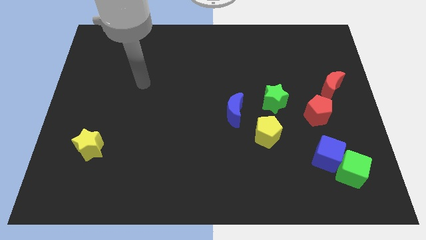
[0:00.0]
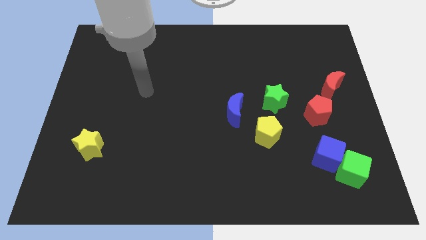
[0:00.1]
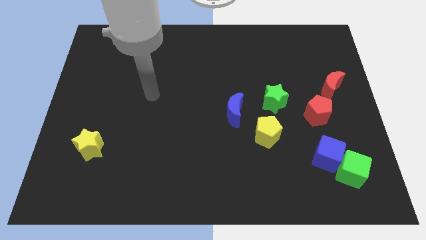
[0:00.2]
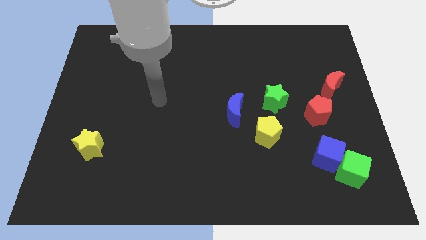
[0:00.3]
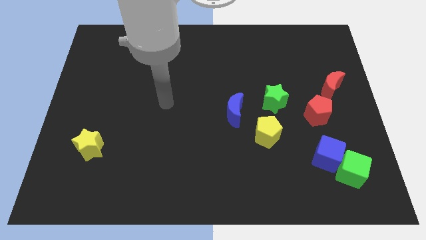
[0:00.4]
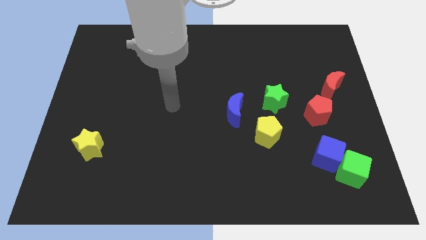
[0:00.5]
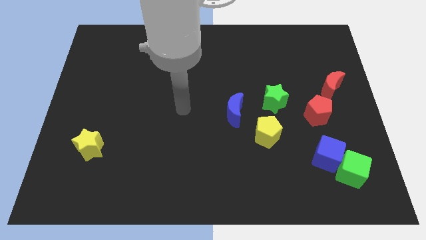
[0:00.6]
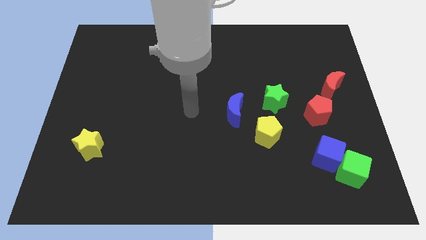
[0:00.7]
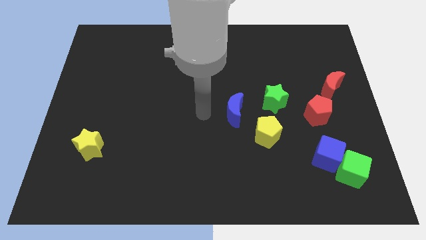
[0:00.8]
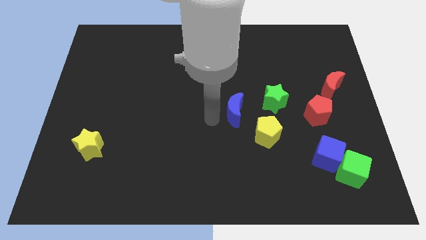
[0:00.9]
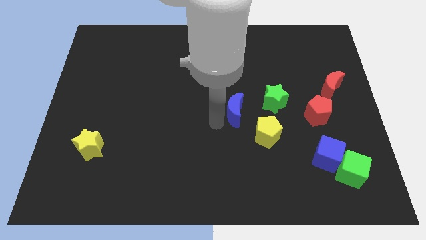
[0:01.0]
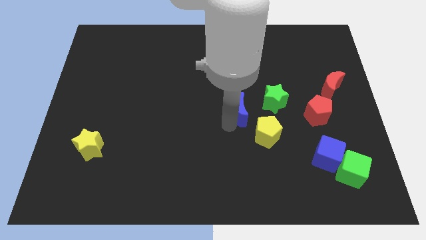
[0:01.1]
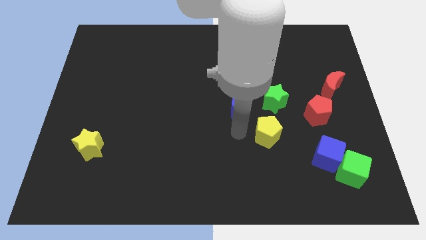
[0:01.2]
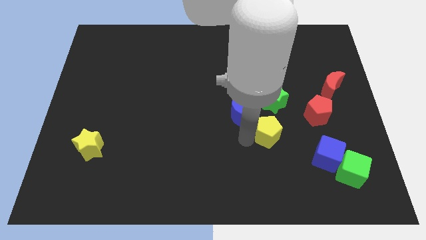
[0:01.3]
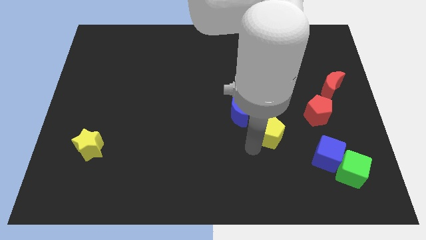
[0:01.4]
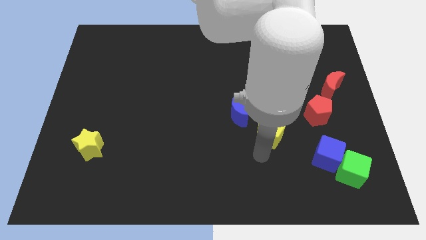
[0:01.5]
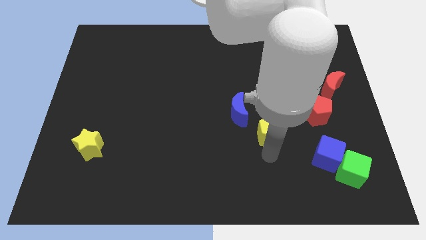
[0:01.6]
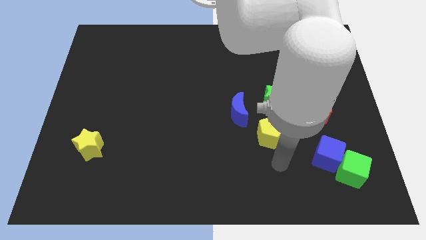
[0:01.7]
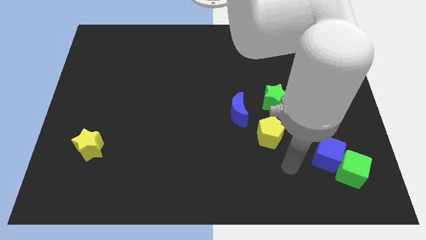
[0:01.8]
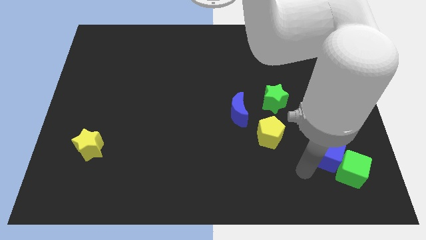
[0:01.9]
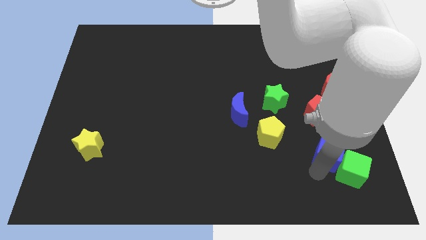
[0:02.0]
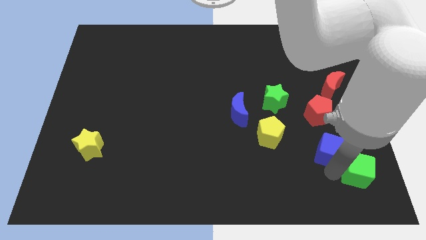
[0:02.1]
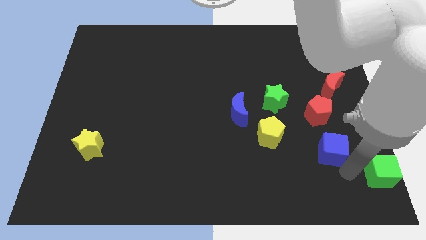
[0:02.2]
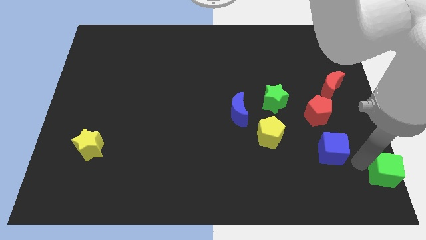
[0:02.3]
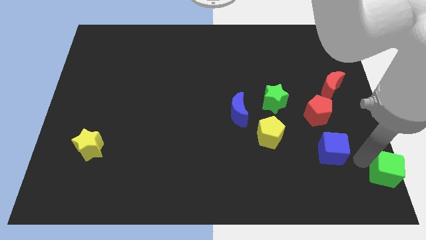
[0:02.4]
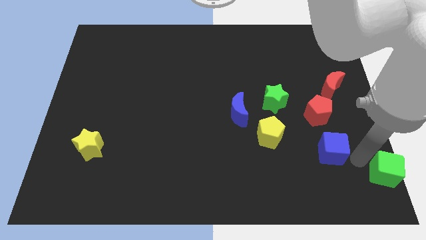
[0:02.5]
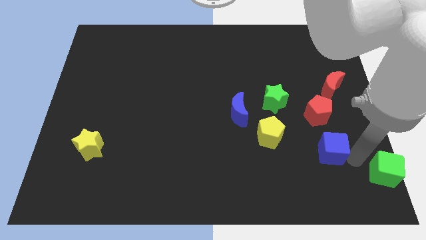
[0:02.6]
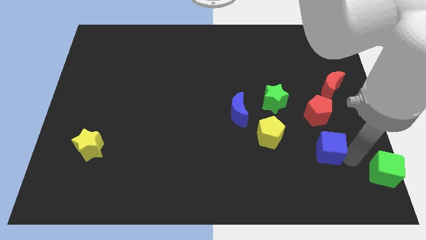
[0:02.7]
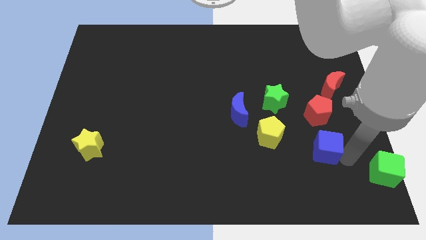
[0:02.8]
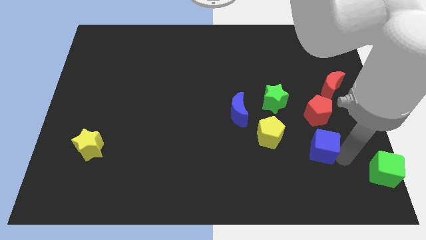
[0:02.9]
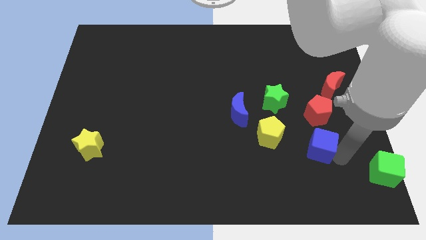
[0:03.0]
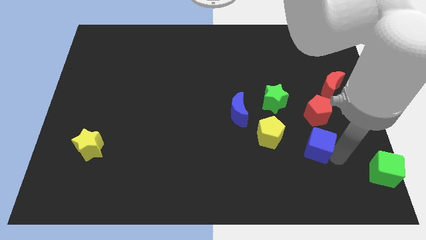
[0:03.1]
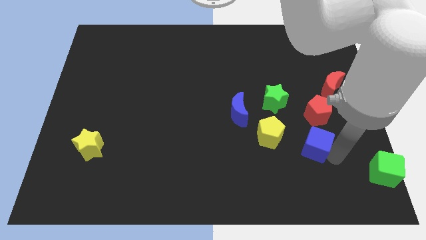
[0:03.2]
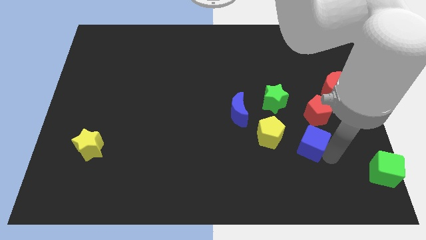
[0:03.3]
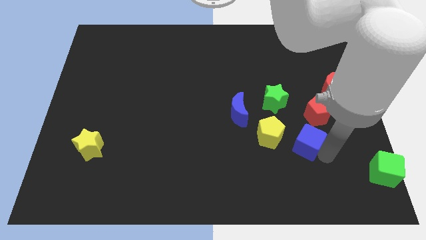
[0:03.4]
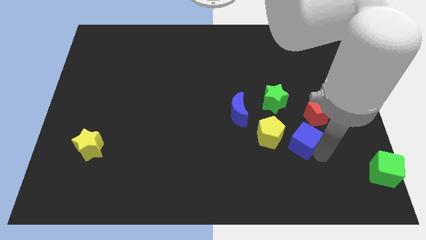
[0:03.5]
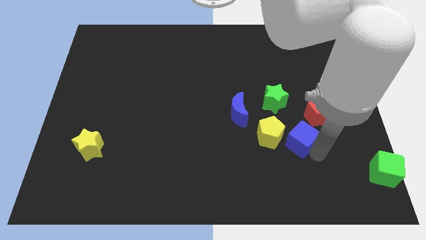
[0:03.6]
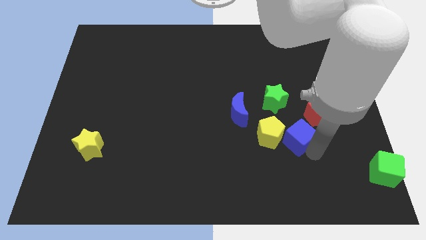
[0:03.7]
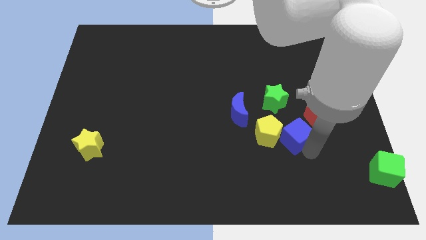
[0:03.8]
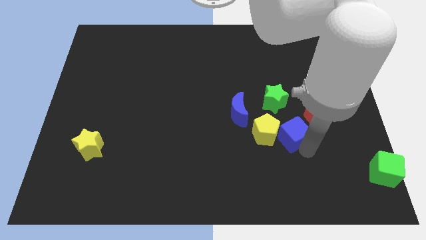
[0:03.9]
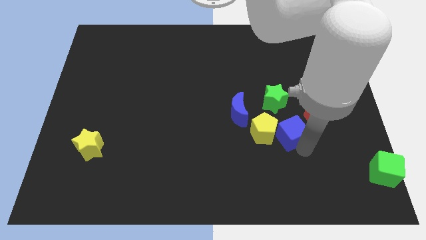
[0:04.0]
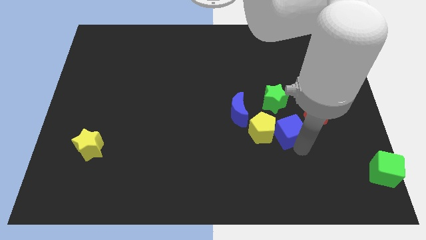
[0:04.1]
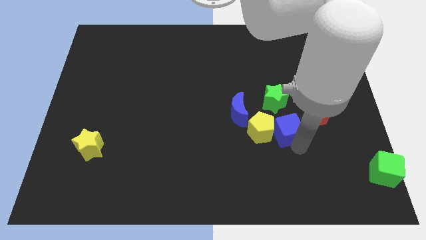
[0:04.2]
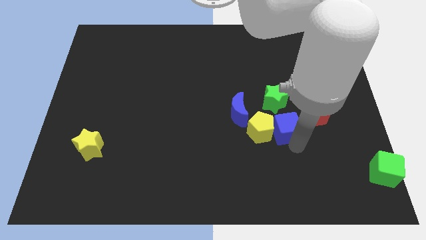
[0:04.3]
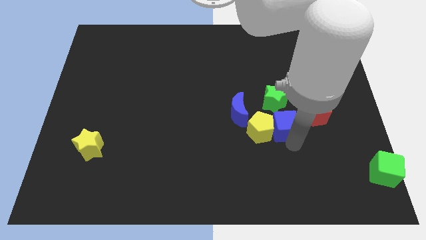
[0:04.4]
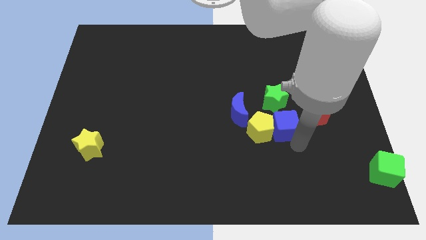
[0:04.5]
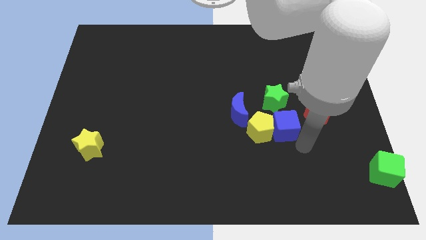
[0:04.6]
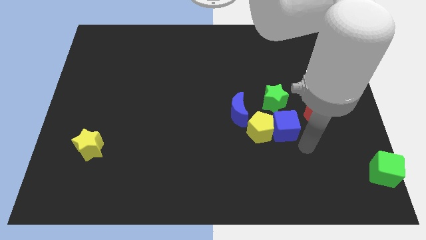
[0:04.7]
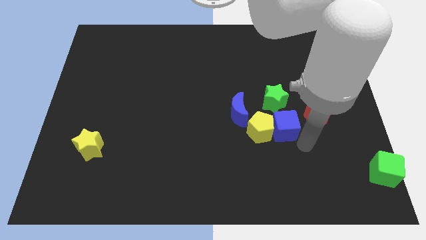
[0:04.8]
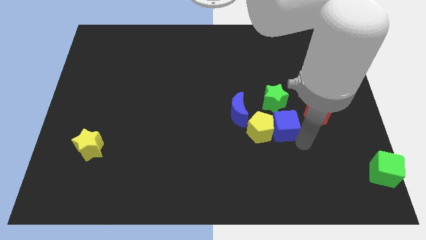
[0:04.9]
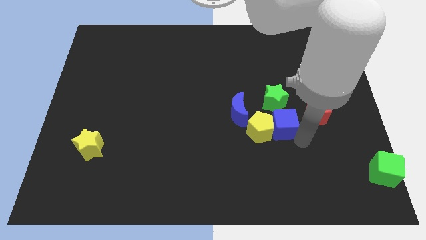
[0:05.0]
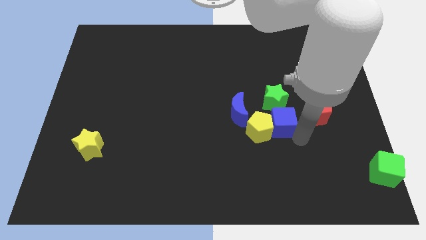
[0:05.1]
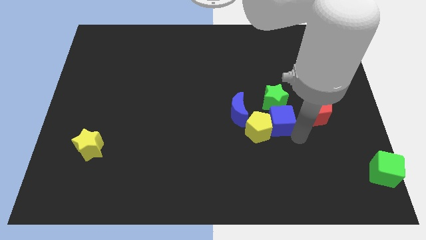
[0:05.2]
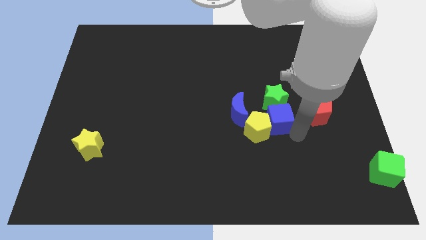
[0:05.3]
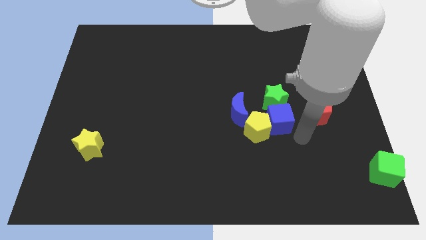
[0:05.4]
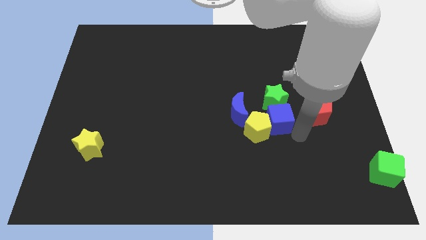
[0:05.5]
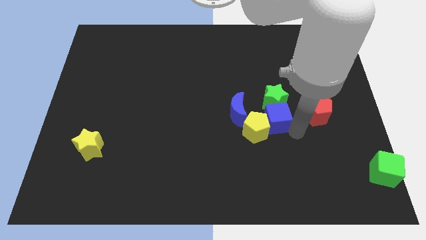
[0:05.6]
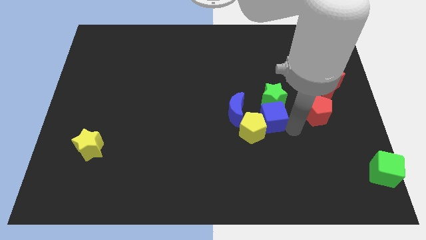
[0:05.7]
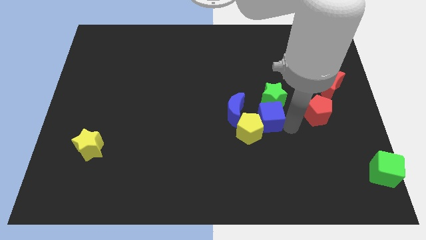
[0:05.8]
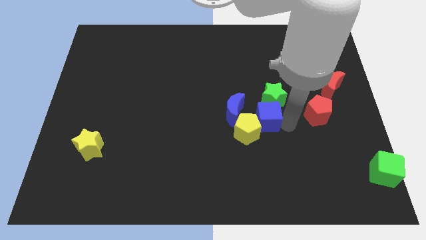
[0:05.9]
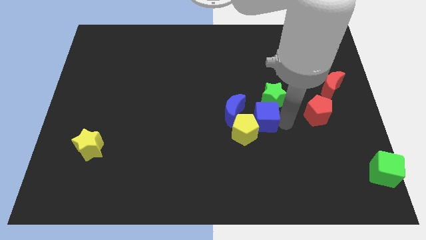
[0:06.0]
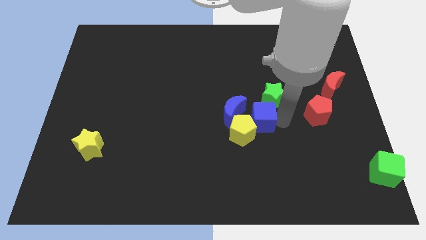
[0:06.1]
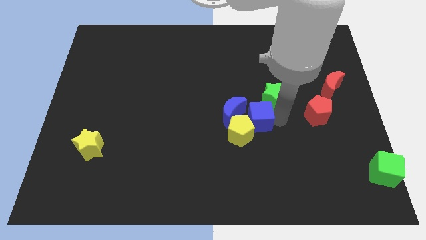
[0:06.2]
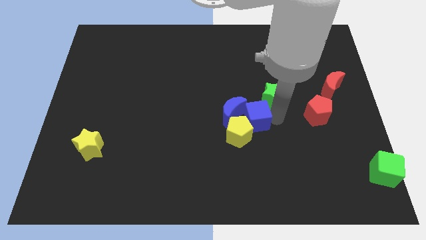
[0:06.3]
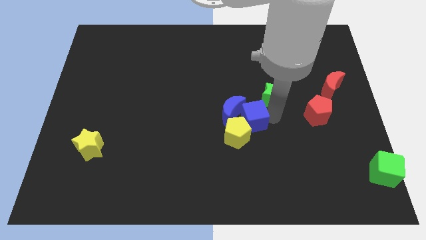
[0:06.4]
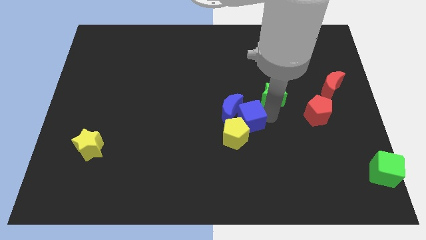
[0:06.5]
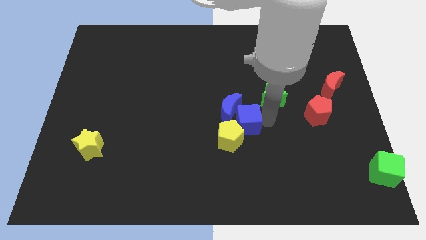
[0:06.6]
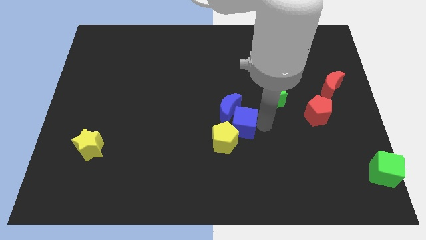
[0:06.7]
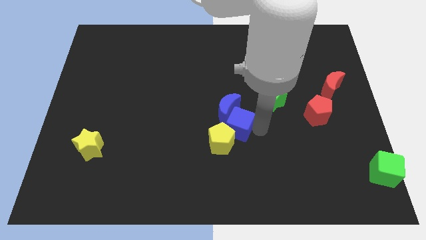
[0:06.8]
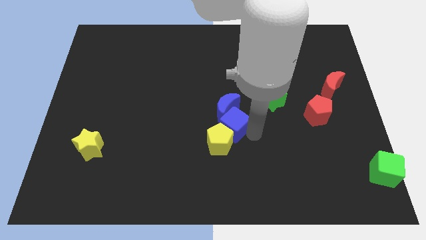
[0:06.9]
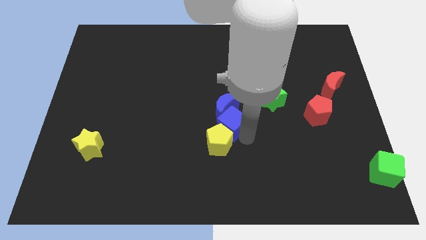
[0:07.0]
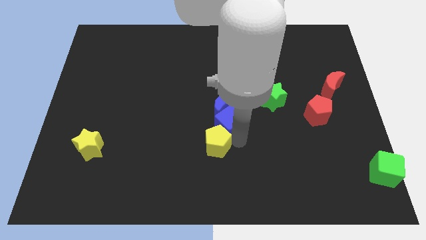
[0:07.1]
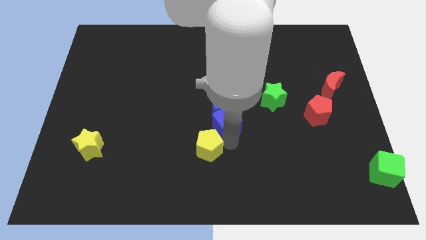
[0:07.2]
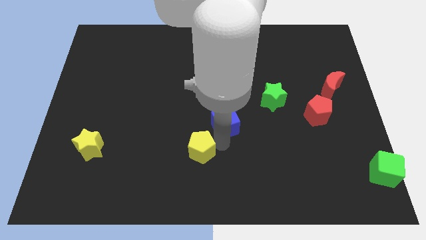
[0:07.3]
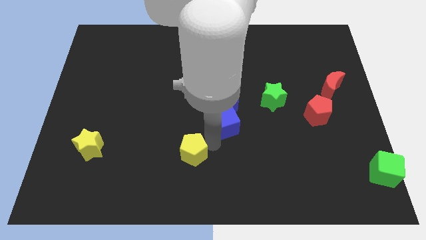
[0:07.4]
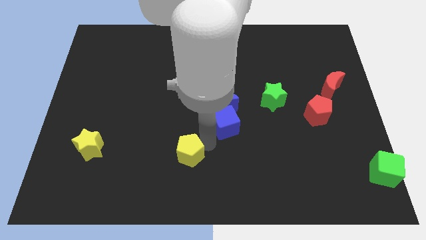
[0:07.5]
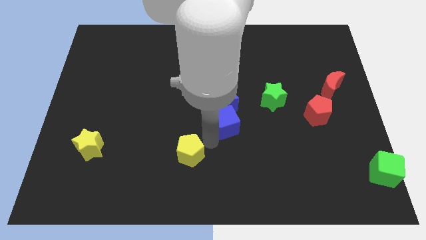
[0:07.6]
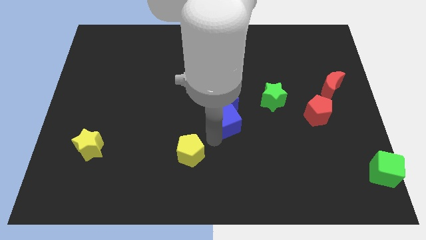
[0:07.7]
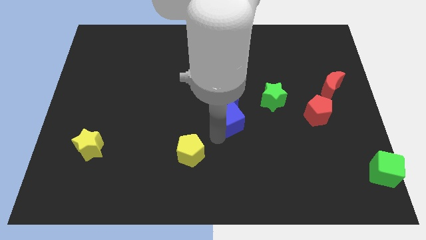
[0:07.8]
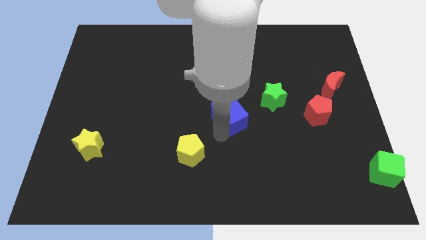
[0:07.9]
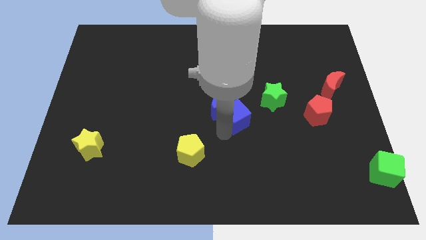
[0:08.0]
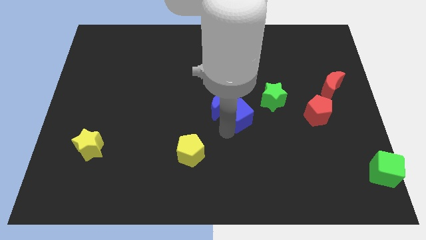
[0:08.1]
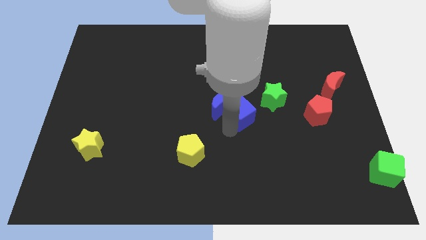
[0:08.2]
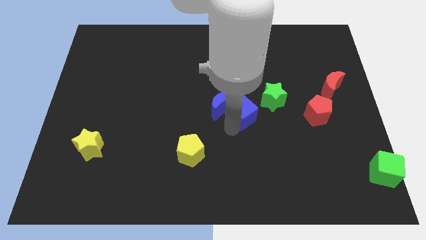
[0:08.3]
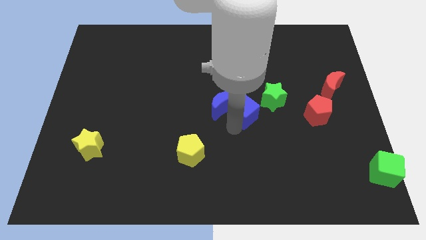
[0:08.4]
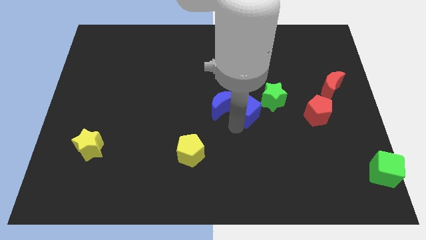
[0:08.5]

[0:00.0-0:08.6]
push the blue cube diagonally up and to the left
